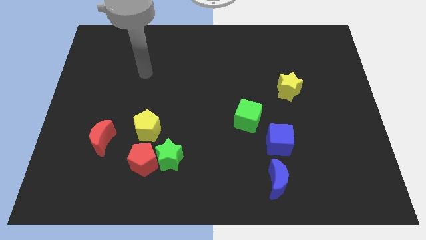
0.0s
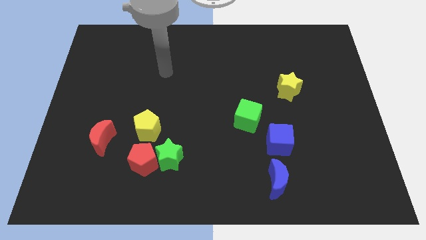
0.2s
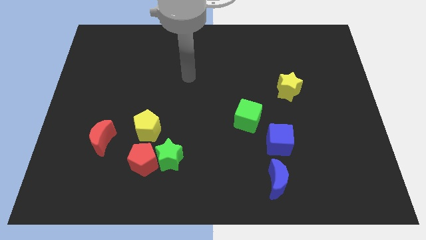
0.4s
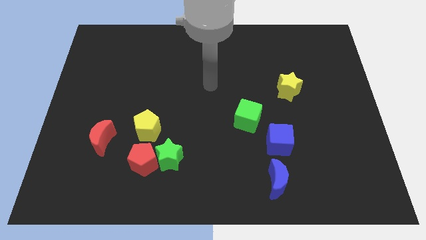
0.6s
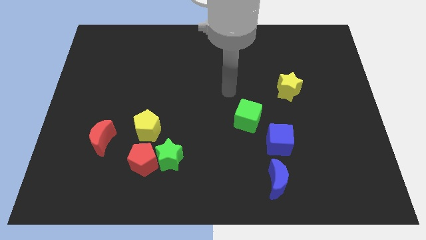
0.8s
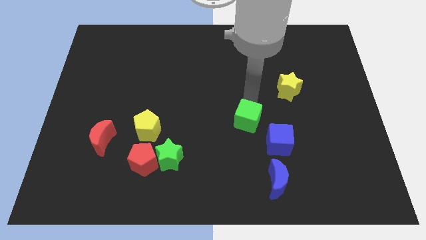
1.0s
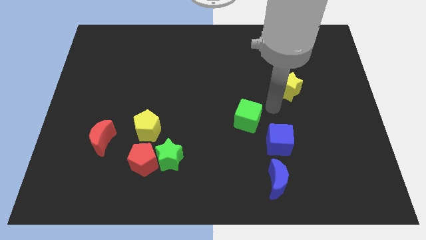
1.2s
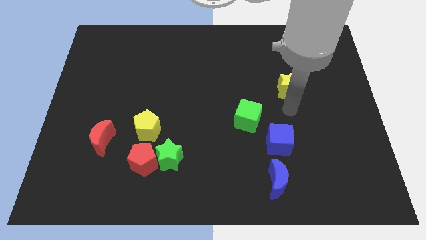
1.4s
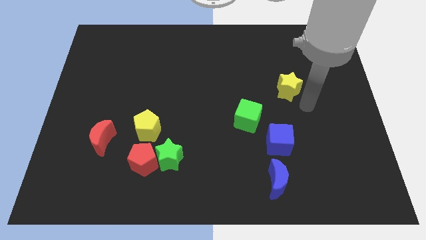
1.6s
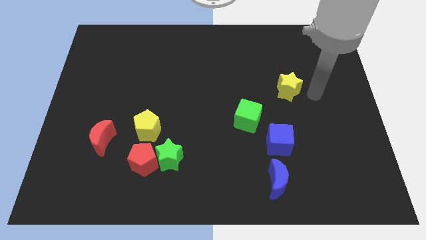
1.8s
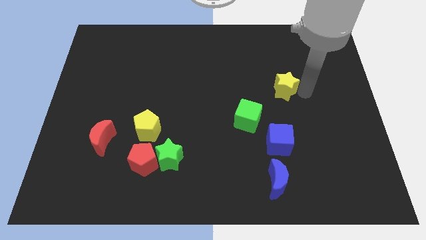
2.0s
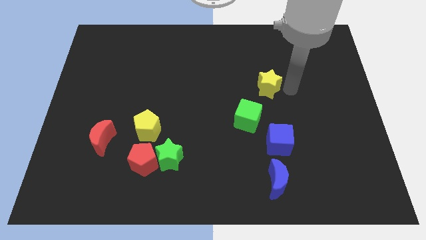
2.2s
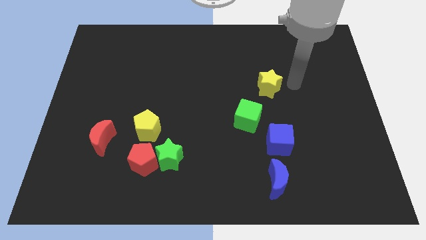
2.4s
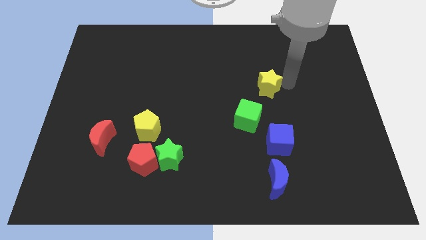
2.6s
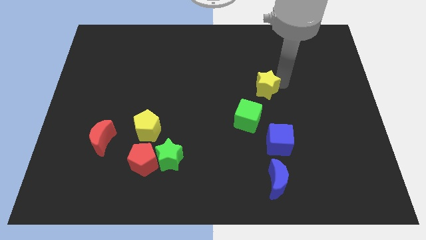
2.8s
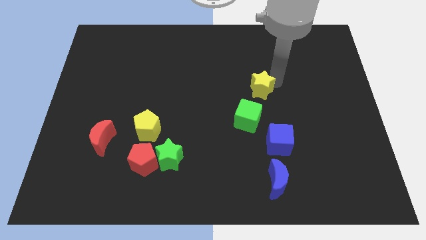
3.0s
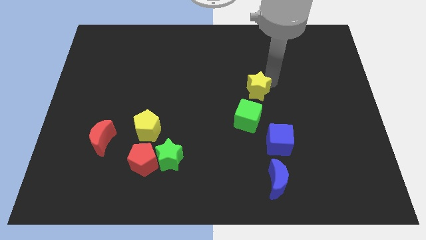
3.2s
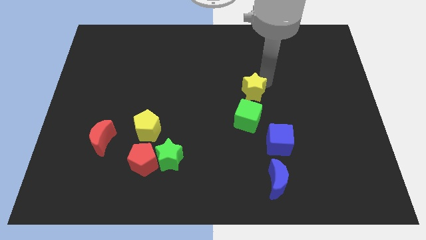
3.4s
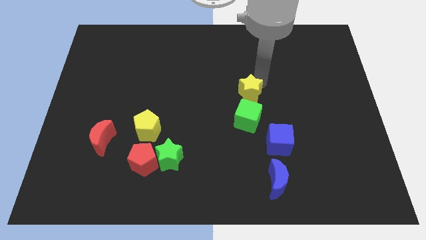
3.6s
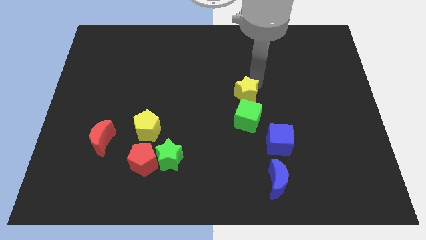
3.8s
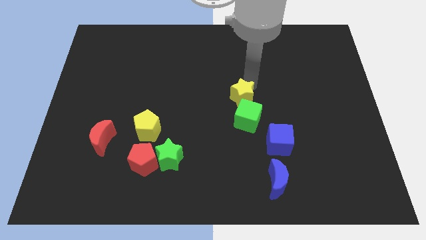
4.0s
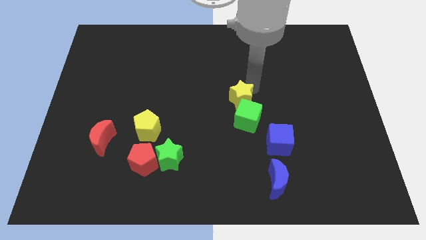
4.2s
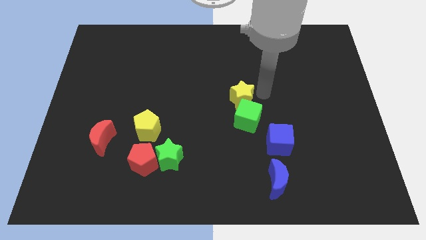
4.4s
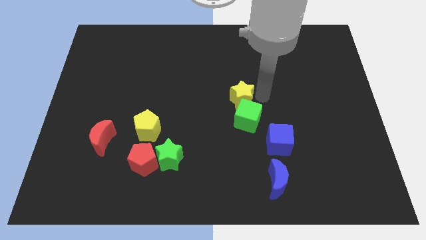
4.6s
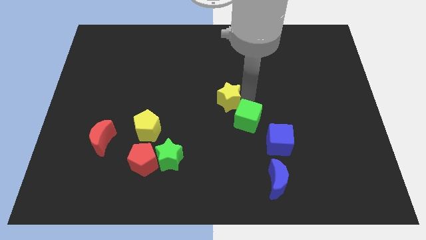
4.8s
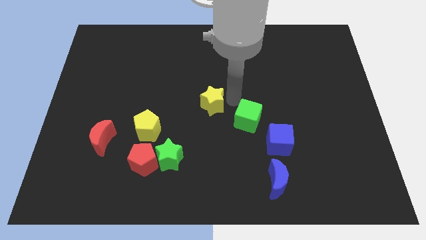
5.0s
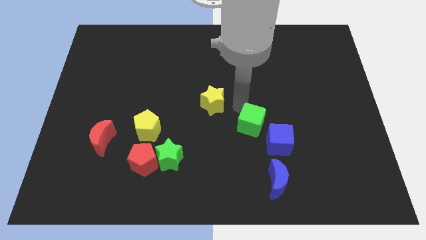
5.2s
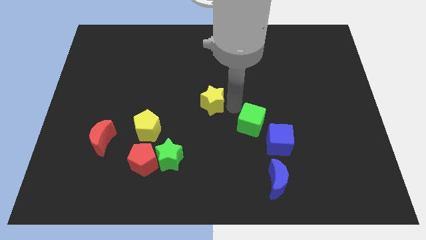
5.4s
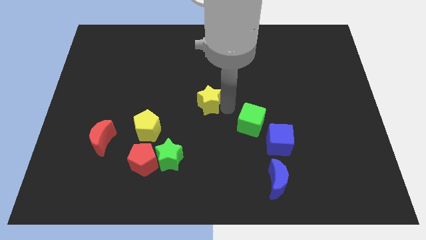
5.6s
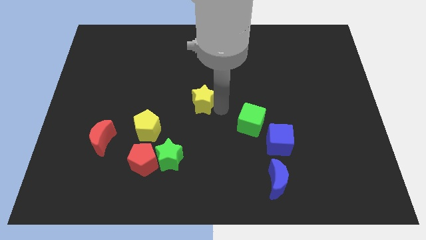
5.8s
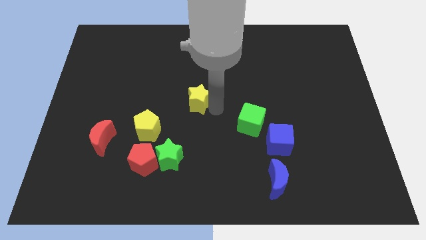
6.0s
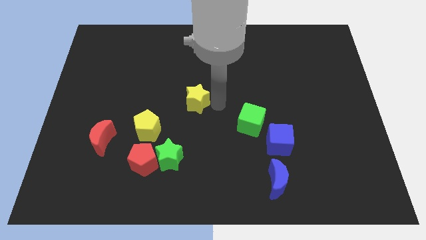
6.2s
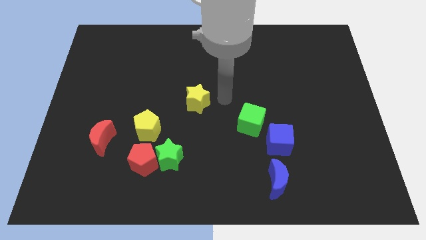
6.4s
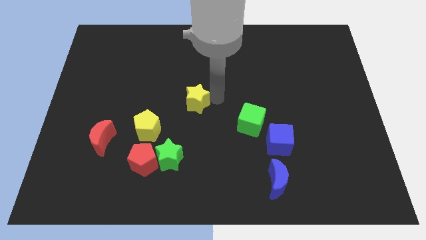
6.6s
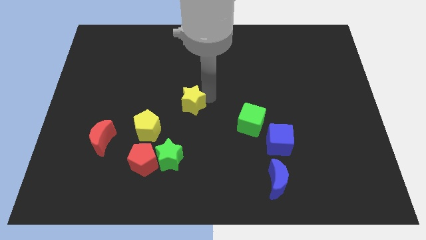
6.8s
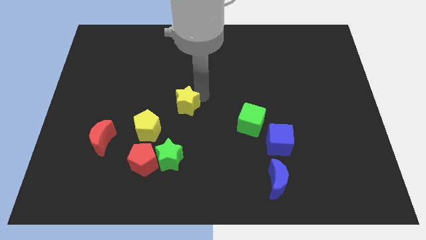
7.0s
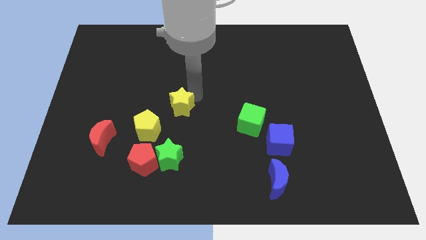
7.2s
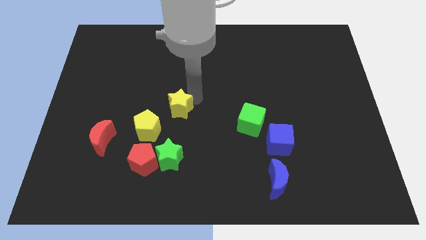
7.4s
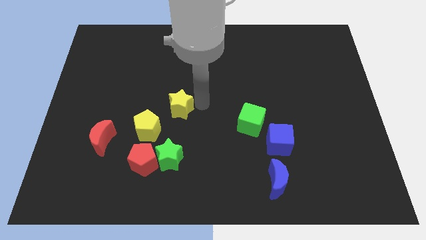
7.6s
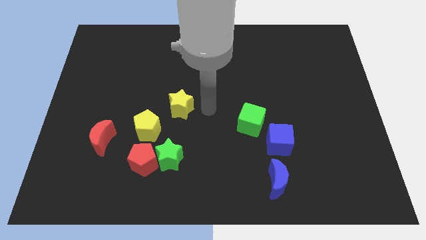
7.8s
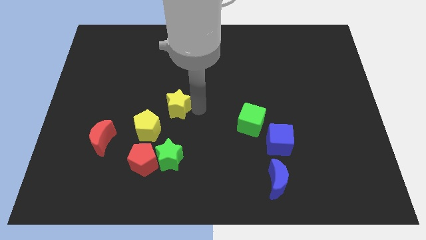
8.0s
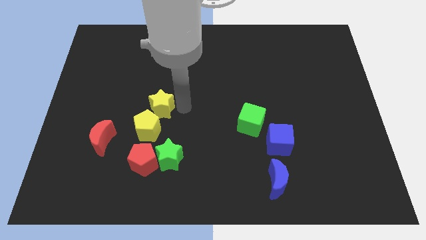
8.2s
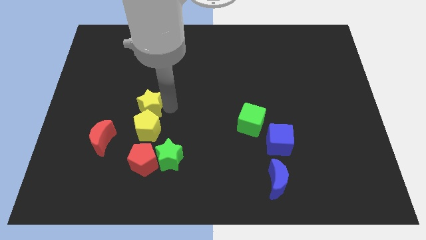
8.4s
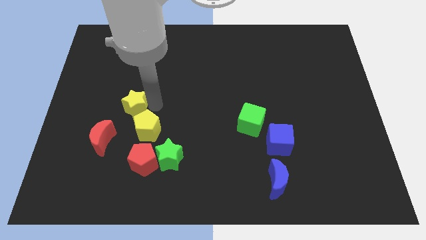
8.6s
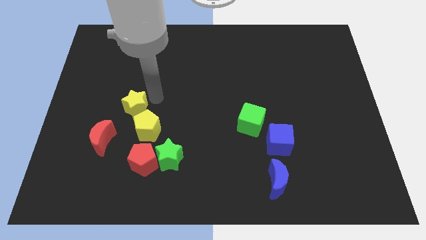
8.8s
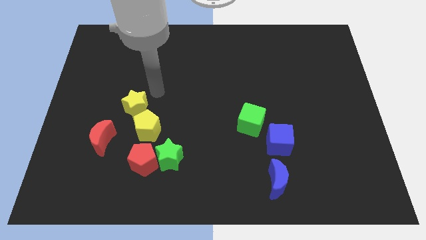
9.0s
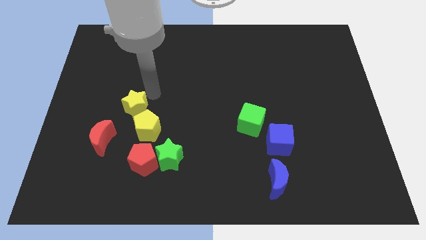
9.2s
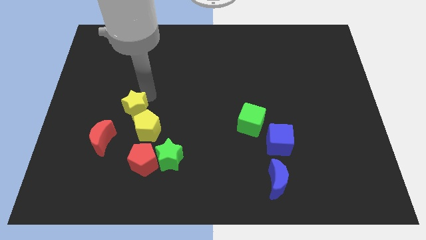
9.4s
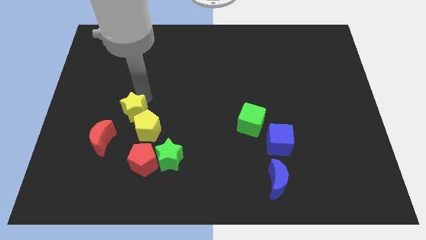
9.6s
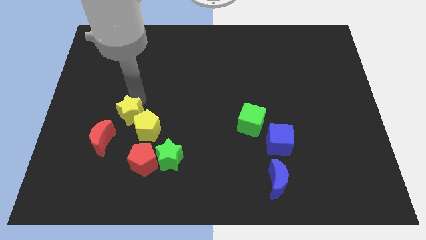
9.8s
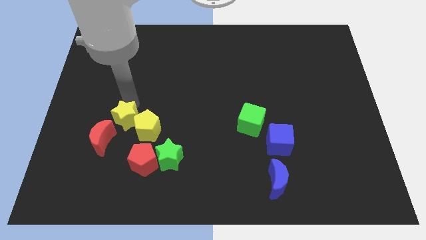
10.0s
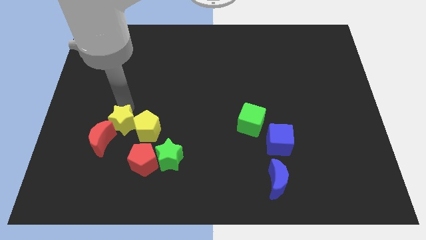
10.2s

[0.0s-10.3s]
move the yellow star to the red moon

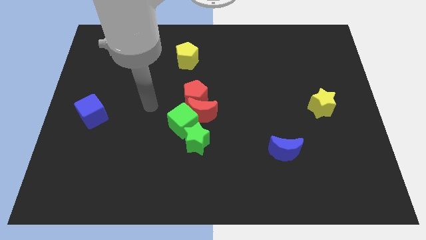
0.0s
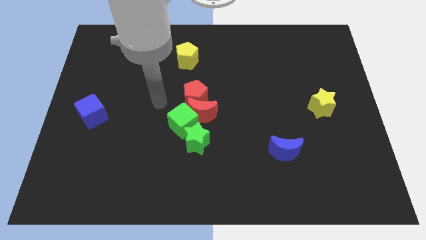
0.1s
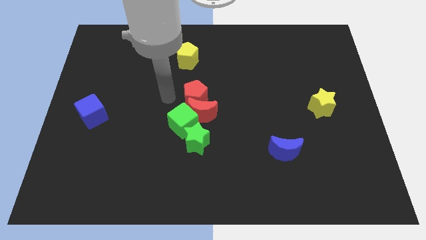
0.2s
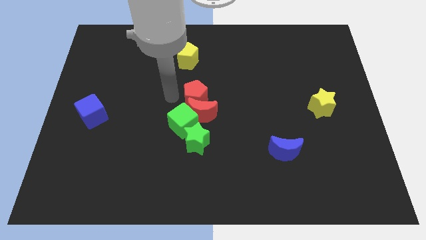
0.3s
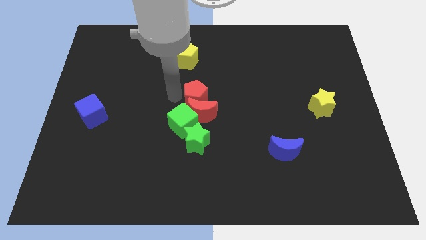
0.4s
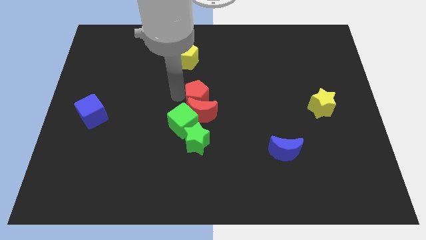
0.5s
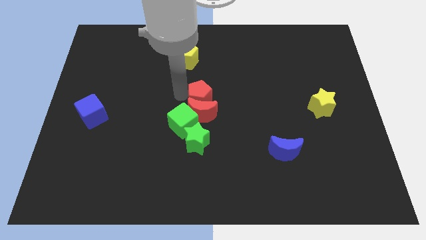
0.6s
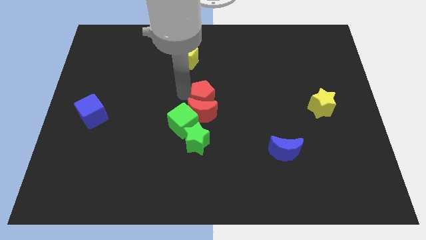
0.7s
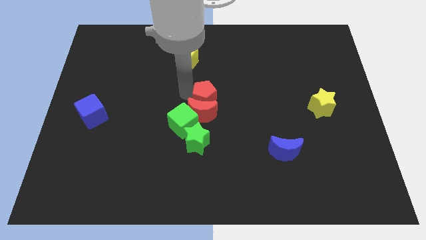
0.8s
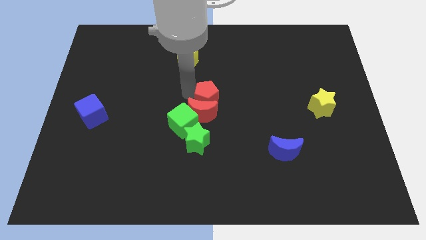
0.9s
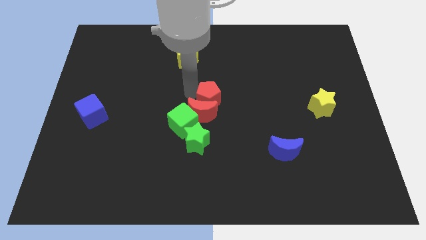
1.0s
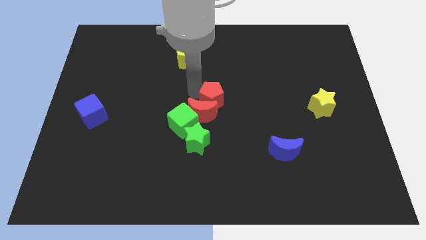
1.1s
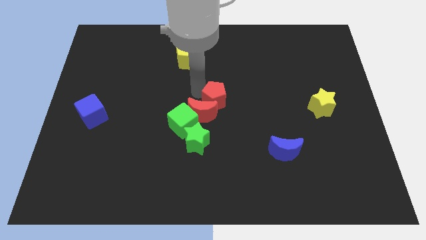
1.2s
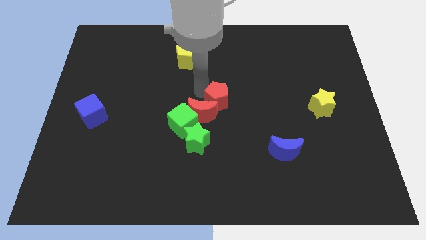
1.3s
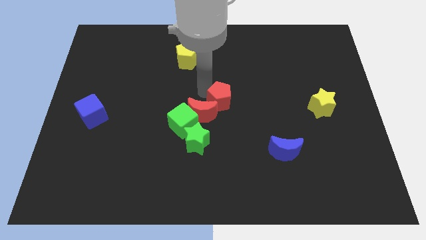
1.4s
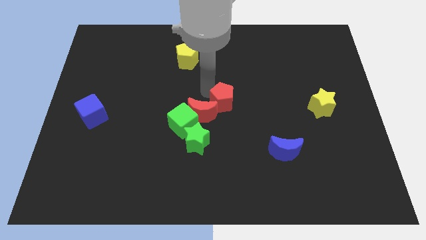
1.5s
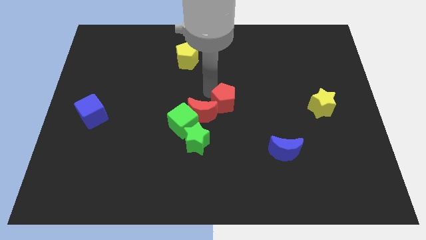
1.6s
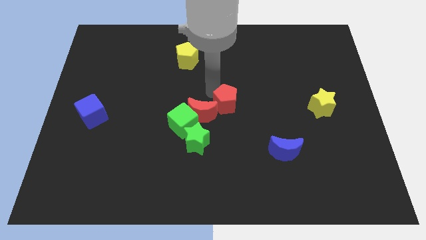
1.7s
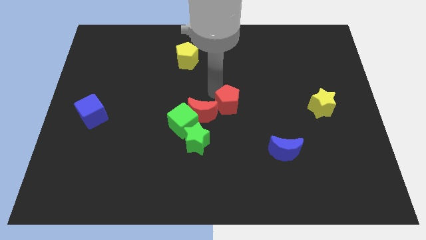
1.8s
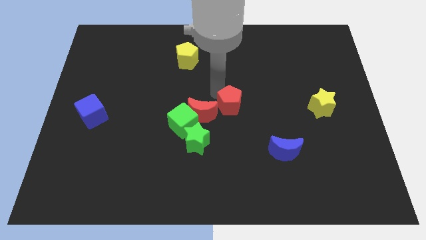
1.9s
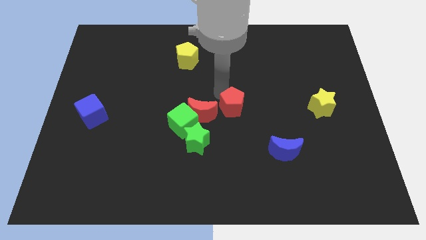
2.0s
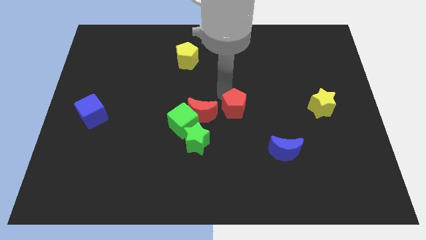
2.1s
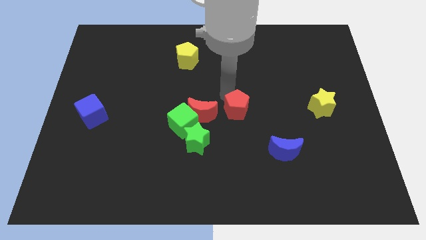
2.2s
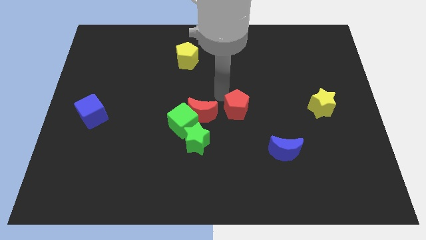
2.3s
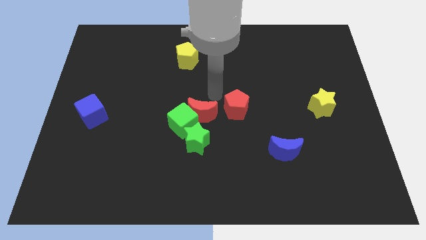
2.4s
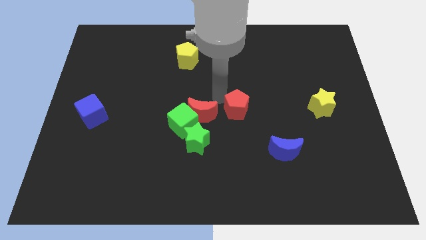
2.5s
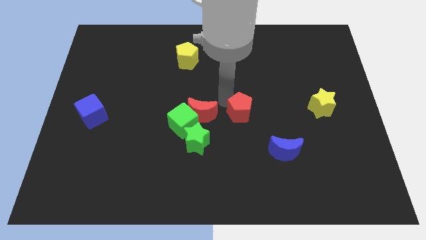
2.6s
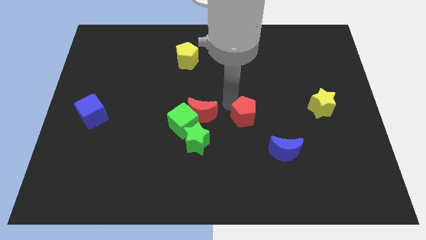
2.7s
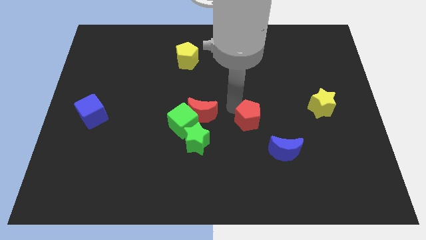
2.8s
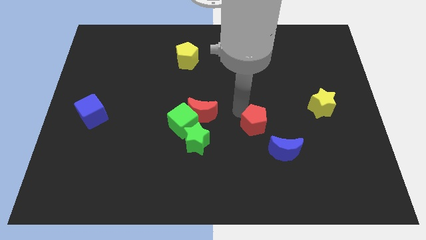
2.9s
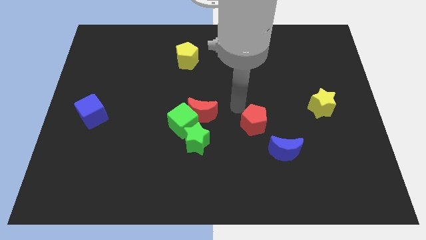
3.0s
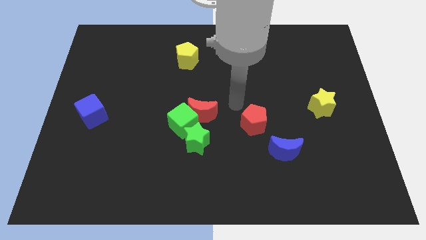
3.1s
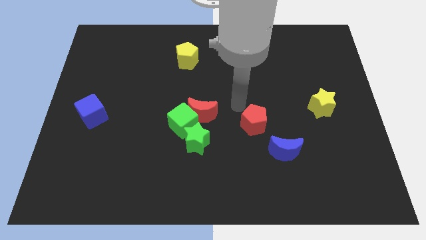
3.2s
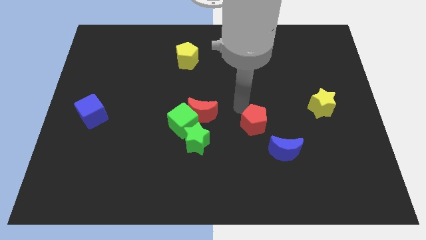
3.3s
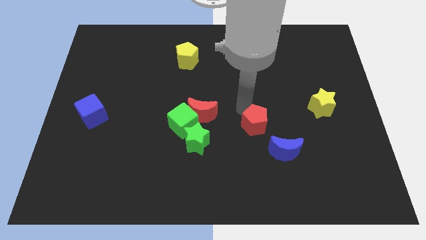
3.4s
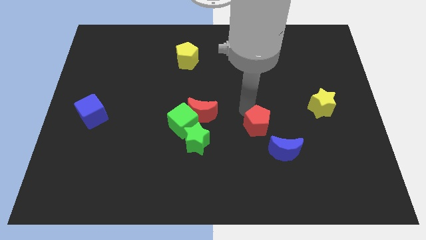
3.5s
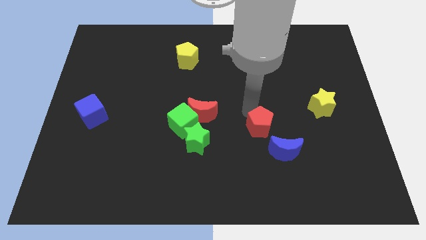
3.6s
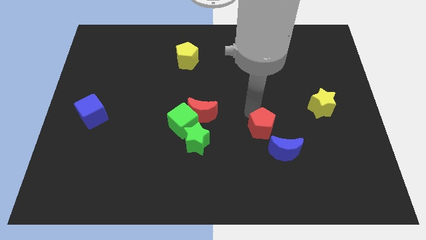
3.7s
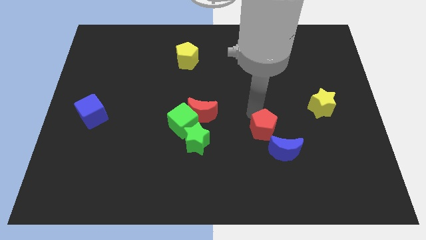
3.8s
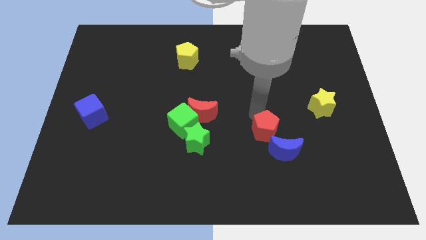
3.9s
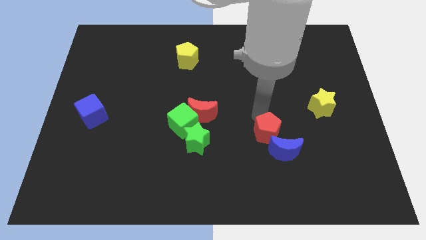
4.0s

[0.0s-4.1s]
slide the red pentagon to the blue moon
